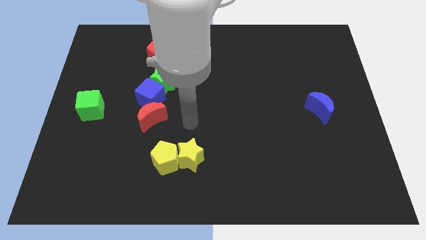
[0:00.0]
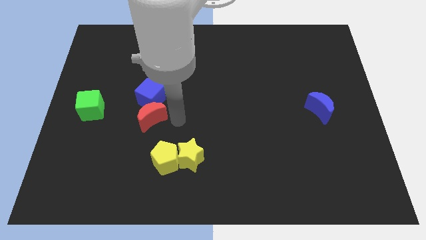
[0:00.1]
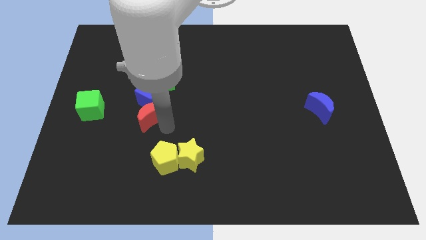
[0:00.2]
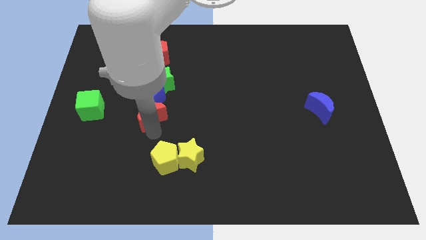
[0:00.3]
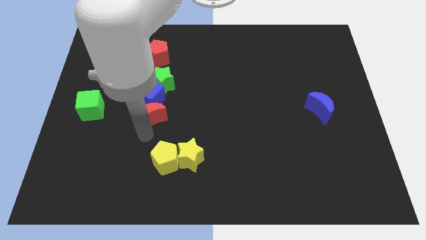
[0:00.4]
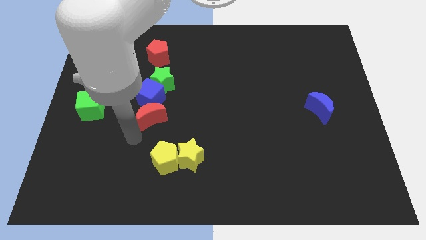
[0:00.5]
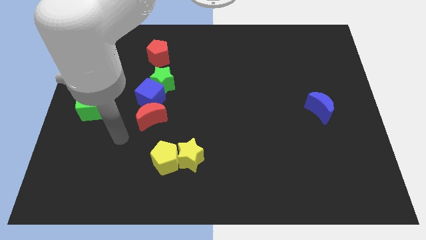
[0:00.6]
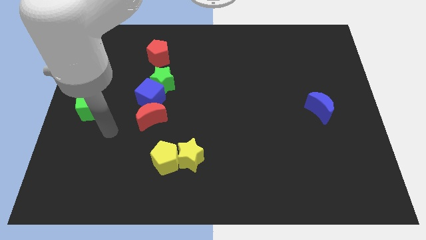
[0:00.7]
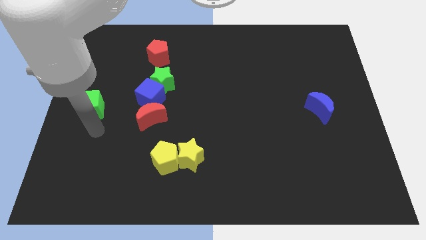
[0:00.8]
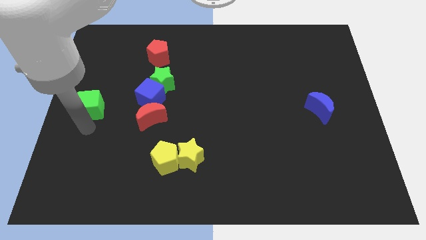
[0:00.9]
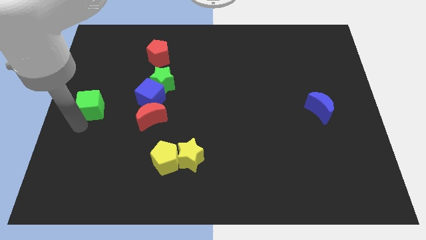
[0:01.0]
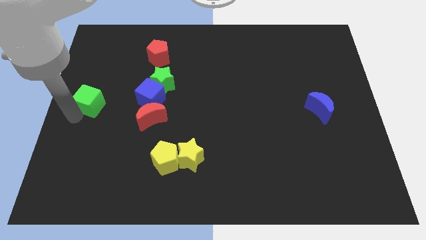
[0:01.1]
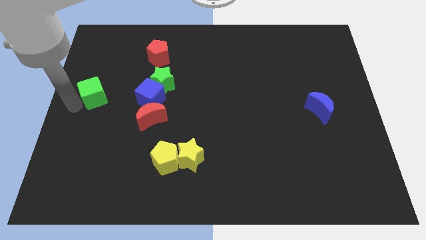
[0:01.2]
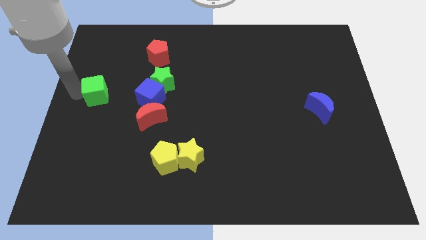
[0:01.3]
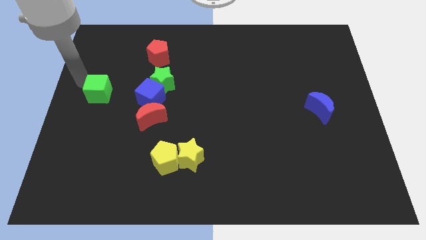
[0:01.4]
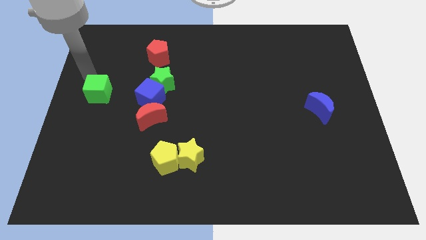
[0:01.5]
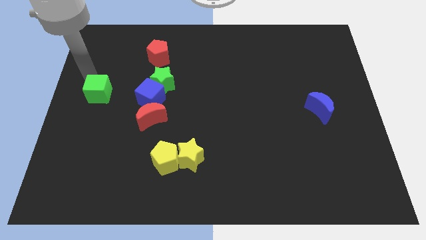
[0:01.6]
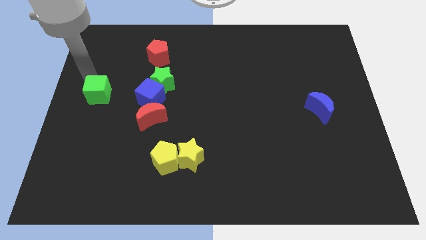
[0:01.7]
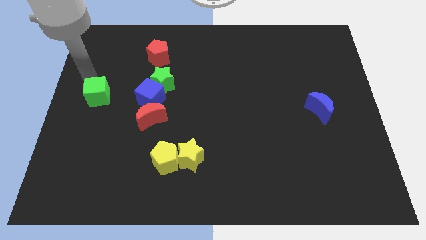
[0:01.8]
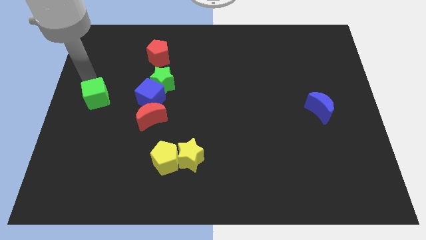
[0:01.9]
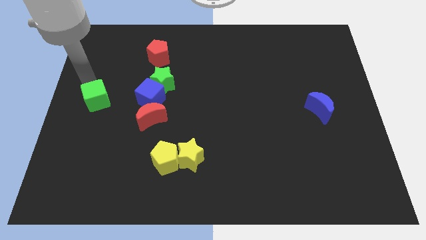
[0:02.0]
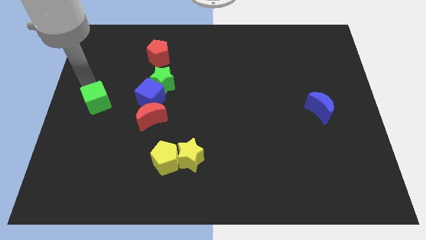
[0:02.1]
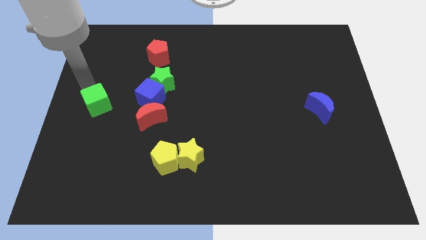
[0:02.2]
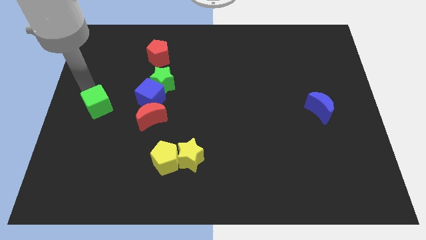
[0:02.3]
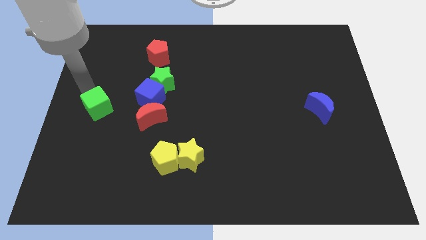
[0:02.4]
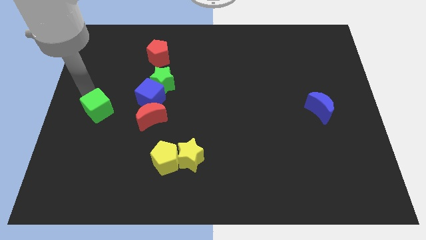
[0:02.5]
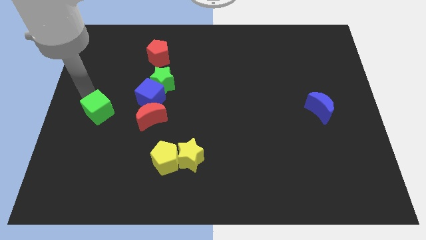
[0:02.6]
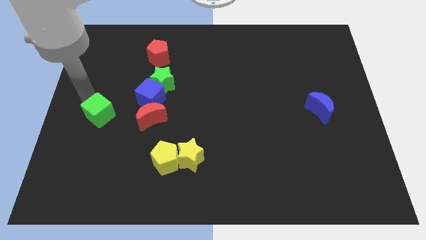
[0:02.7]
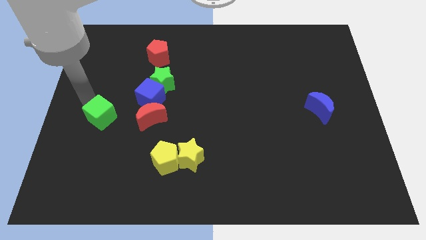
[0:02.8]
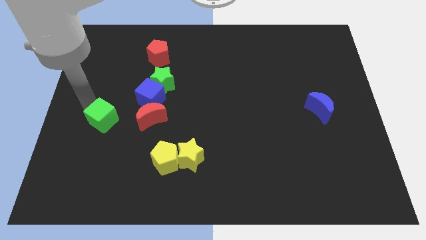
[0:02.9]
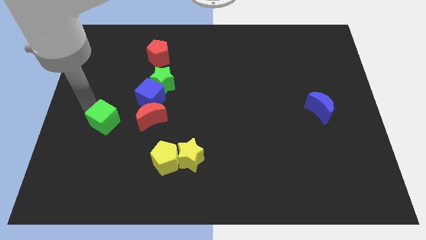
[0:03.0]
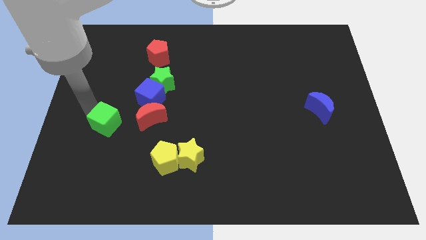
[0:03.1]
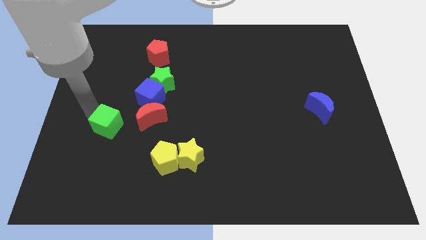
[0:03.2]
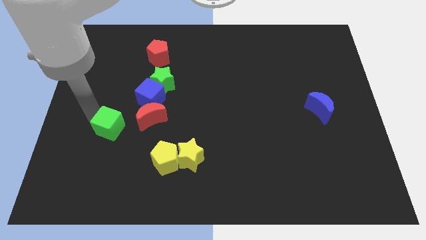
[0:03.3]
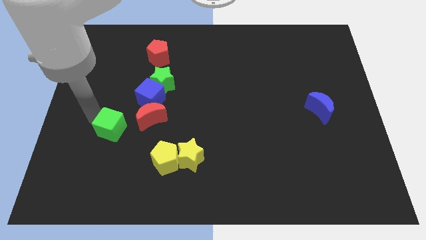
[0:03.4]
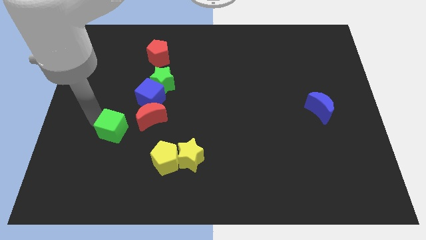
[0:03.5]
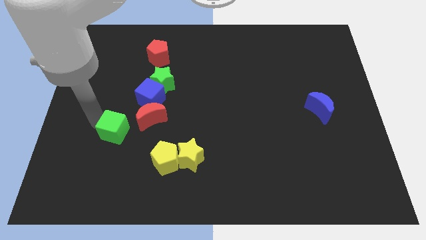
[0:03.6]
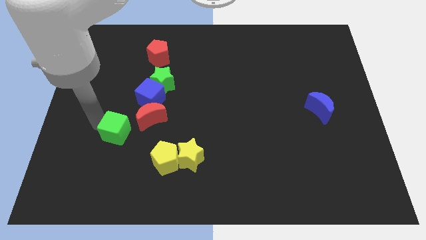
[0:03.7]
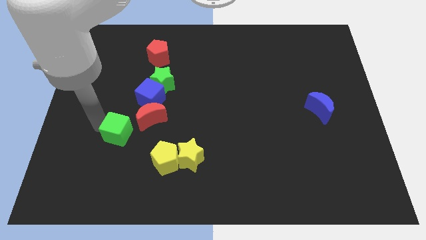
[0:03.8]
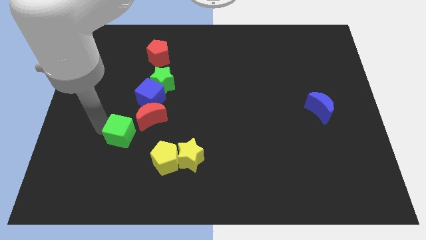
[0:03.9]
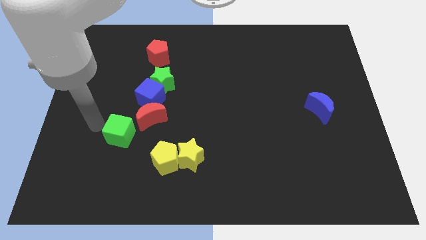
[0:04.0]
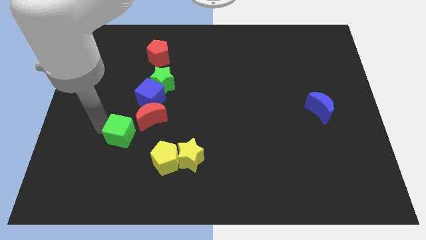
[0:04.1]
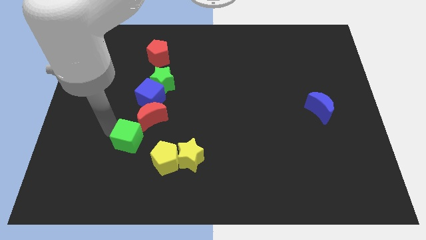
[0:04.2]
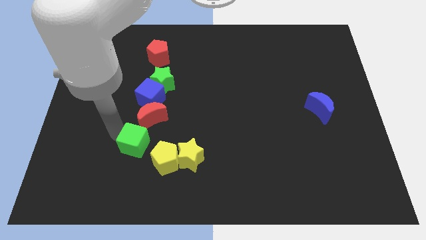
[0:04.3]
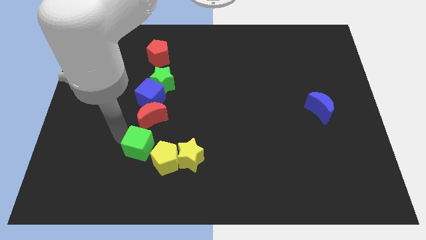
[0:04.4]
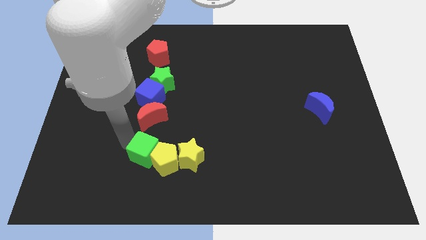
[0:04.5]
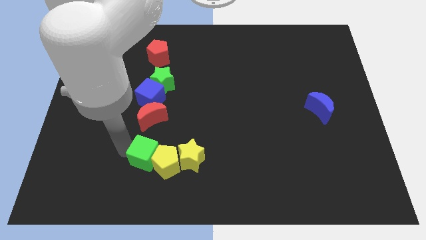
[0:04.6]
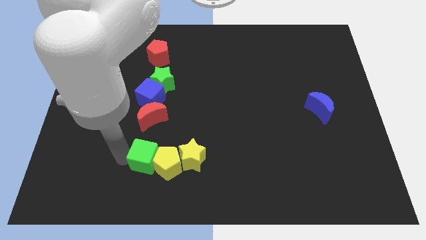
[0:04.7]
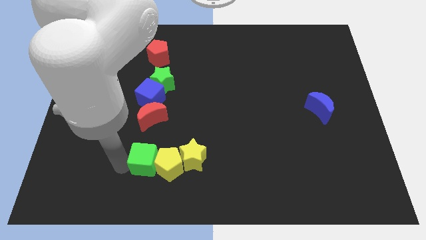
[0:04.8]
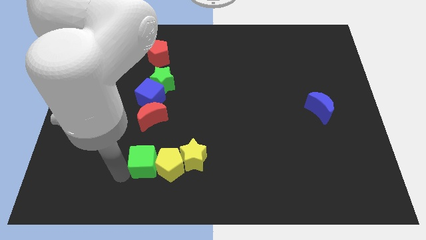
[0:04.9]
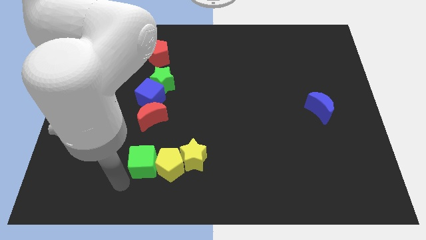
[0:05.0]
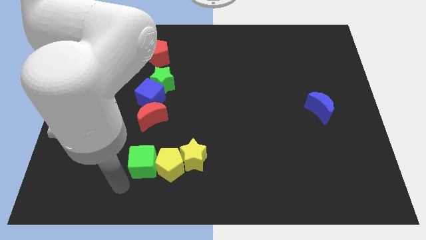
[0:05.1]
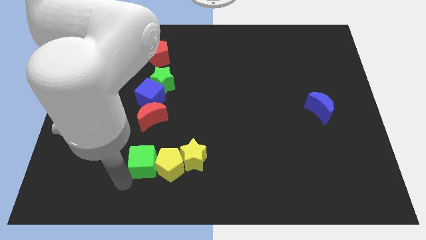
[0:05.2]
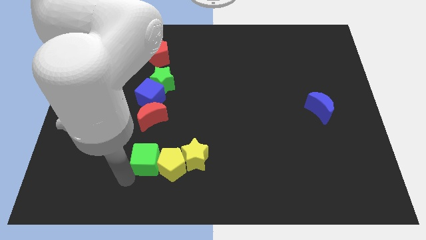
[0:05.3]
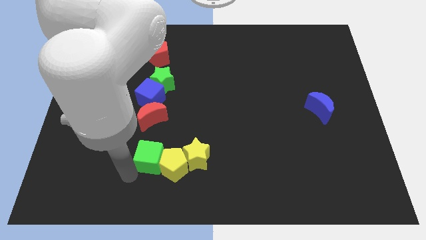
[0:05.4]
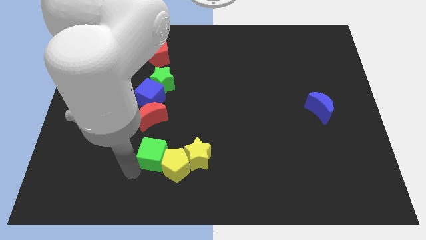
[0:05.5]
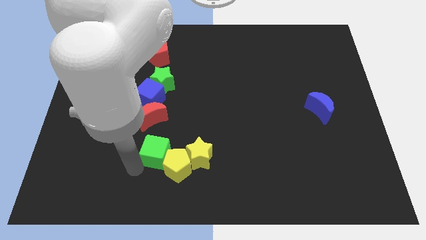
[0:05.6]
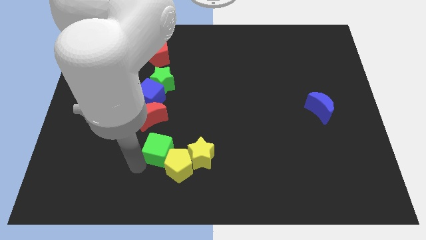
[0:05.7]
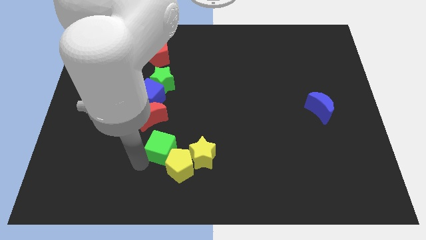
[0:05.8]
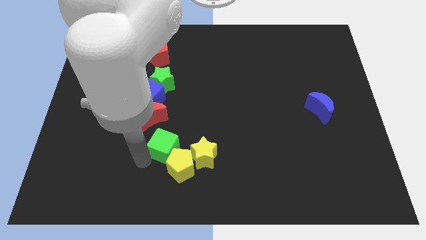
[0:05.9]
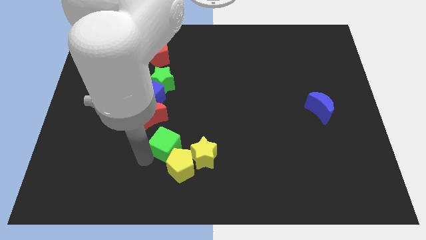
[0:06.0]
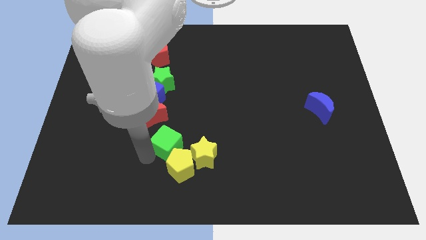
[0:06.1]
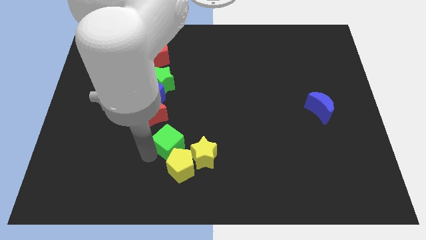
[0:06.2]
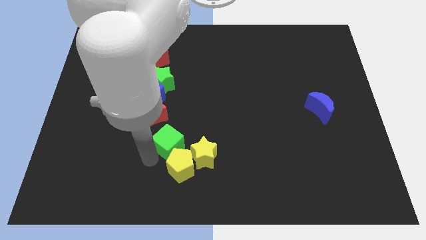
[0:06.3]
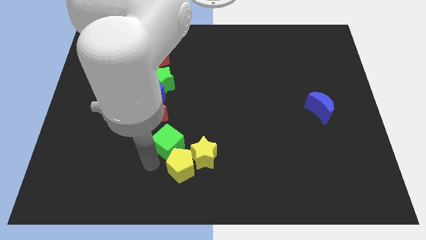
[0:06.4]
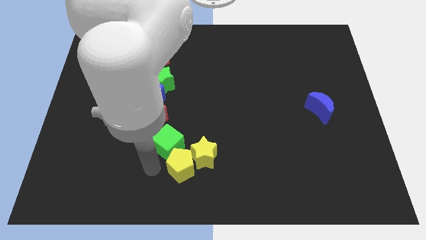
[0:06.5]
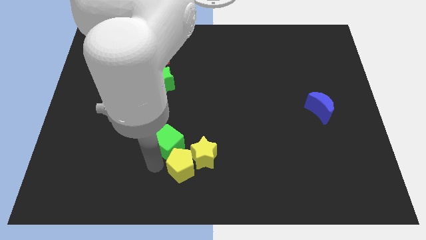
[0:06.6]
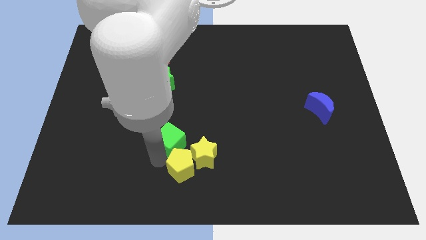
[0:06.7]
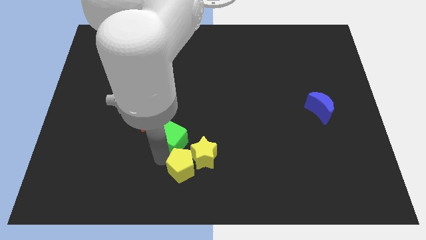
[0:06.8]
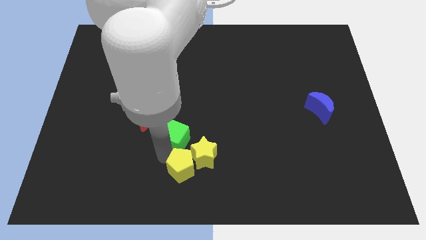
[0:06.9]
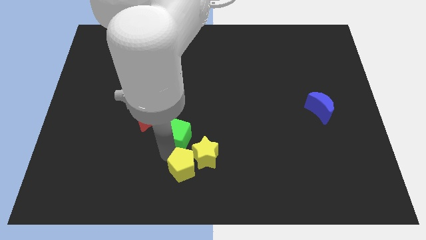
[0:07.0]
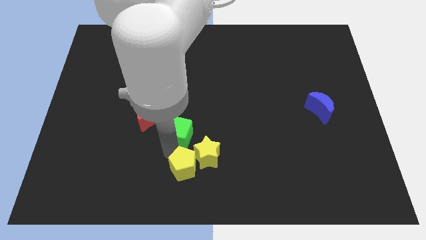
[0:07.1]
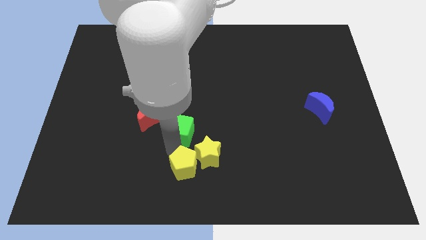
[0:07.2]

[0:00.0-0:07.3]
put the green cube diagonally down and to the right of the blue cube
